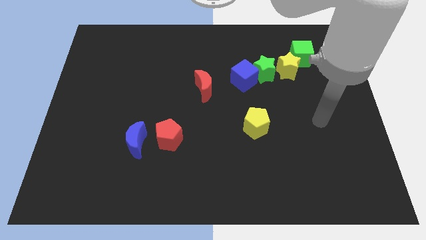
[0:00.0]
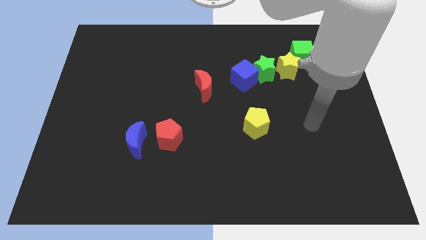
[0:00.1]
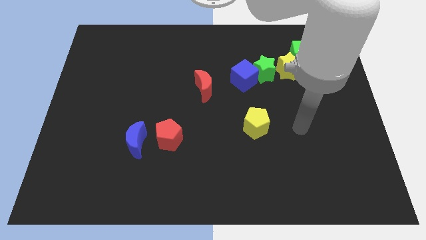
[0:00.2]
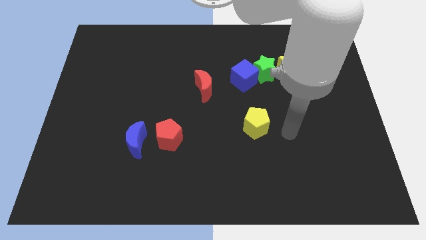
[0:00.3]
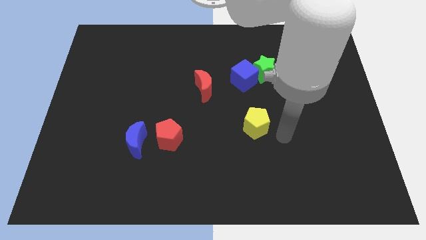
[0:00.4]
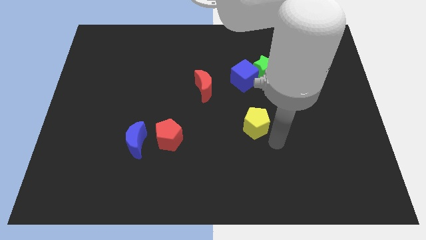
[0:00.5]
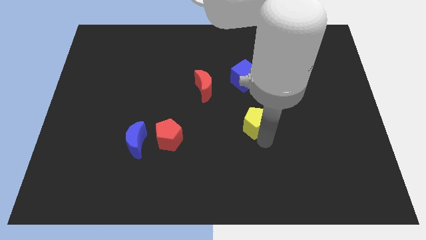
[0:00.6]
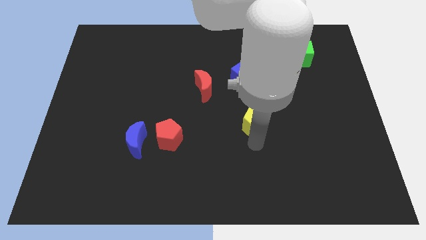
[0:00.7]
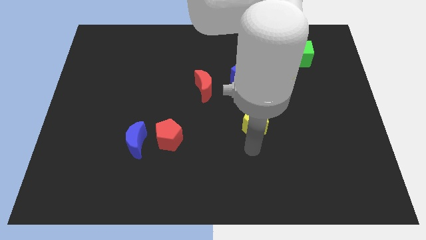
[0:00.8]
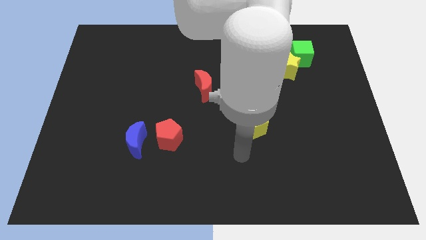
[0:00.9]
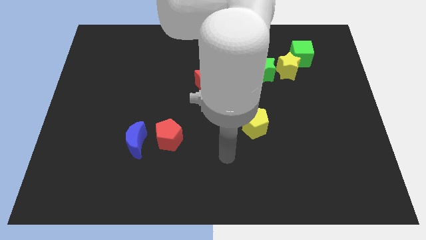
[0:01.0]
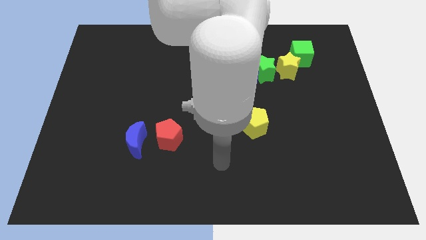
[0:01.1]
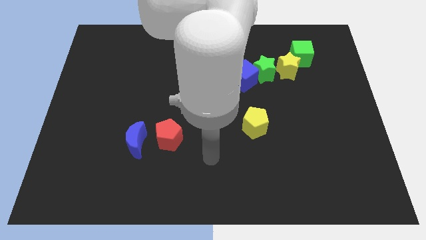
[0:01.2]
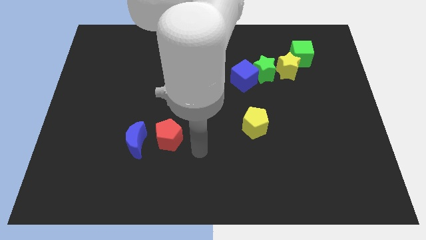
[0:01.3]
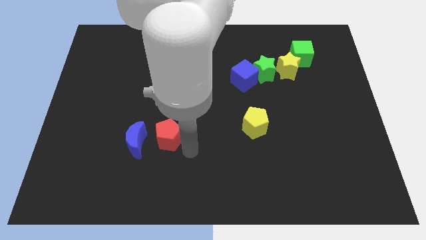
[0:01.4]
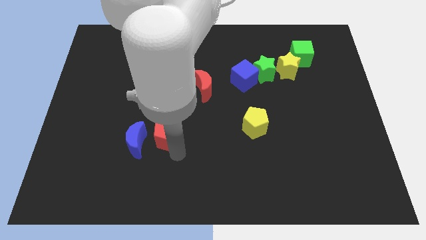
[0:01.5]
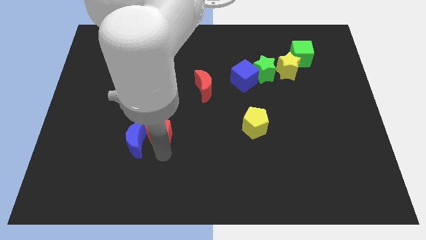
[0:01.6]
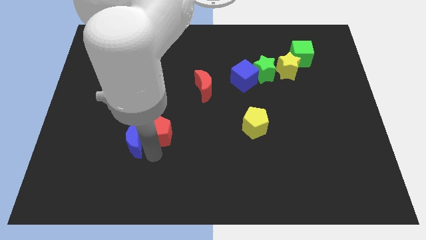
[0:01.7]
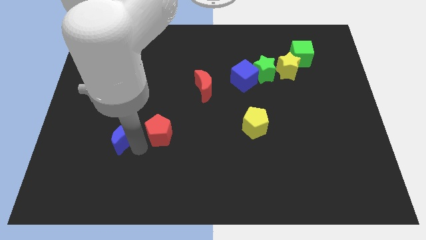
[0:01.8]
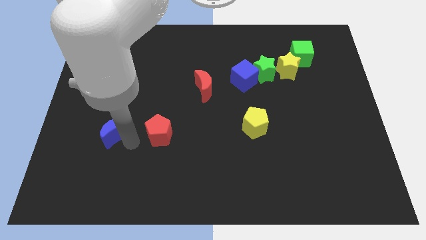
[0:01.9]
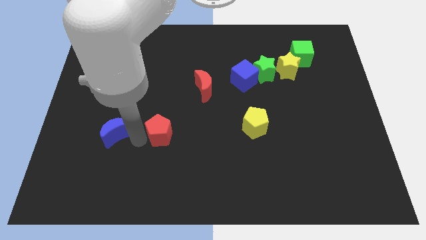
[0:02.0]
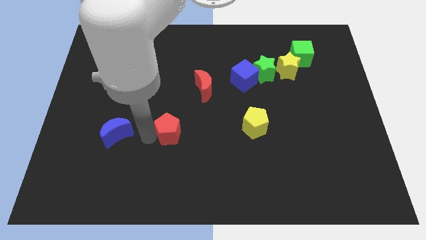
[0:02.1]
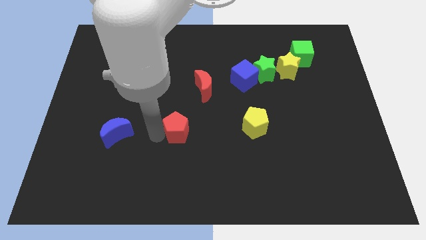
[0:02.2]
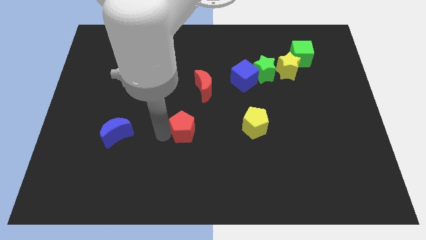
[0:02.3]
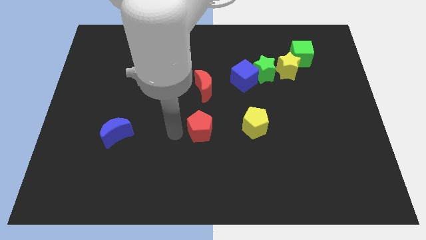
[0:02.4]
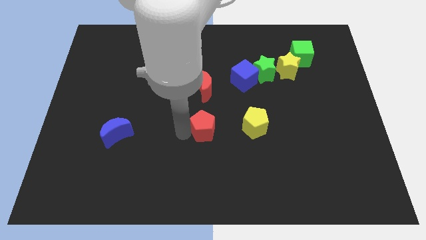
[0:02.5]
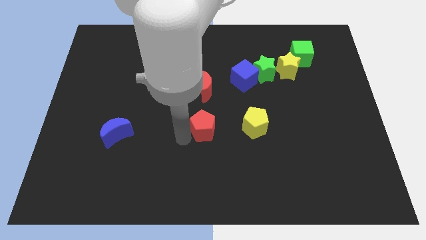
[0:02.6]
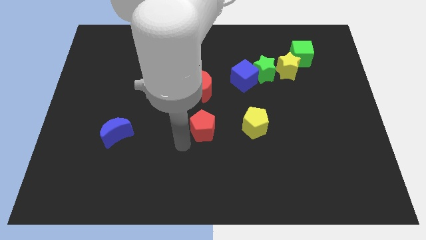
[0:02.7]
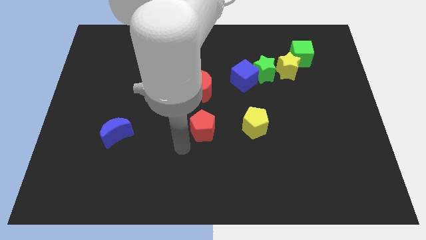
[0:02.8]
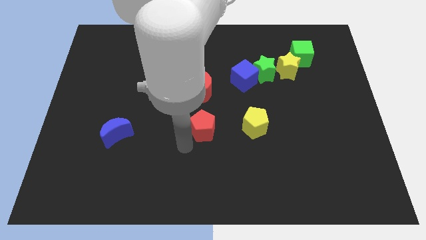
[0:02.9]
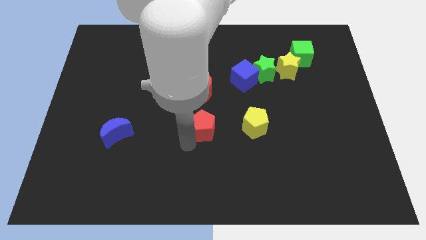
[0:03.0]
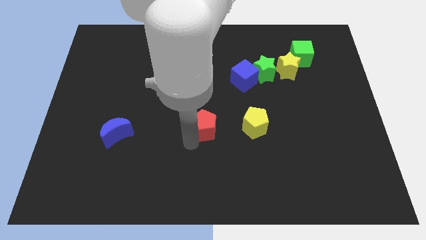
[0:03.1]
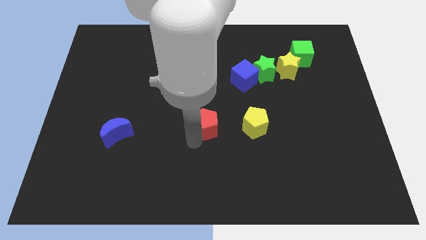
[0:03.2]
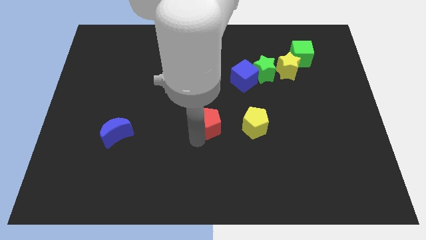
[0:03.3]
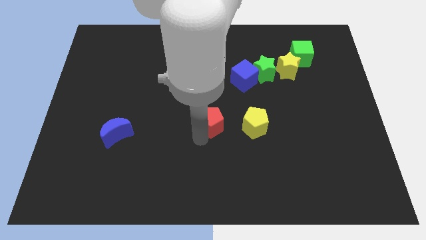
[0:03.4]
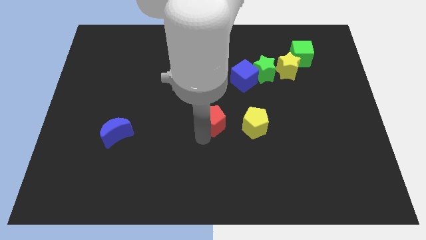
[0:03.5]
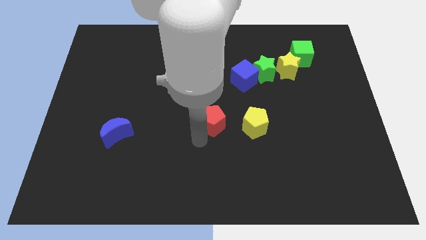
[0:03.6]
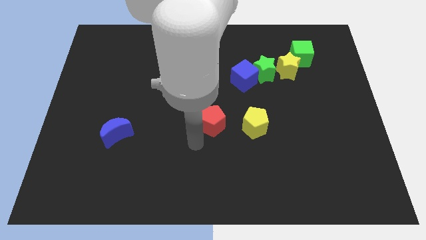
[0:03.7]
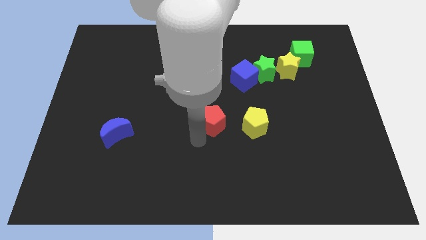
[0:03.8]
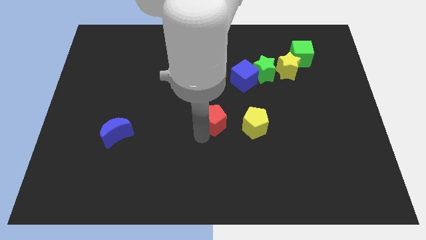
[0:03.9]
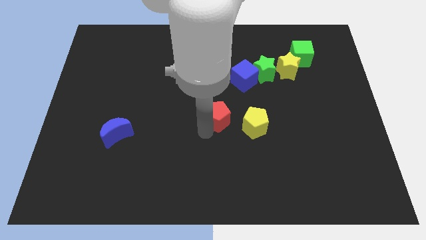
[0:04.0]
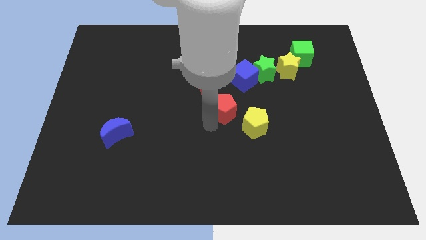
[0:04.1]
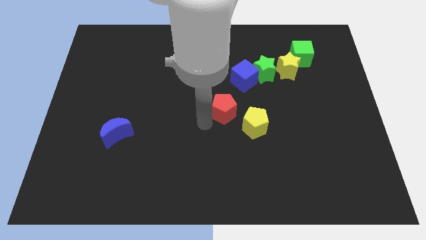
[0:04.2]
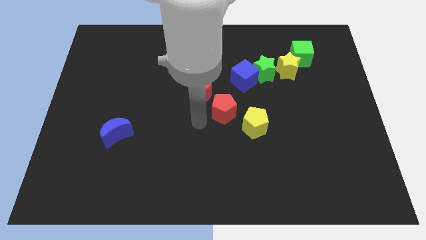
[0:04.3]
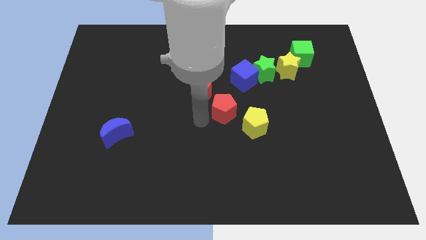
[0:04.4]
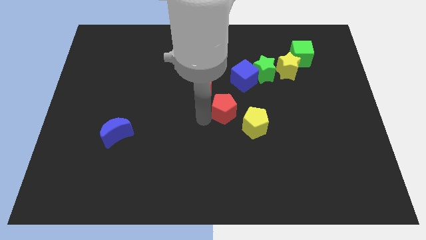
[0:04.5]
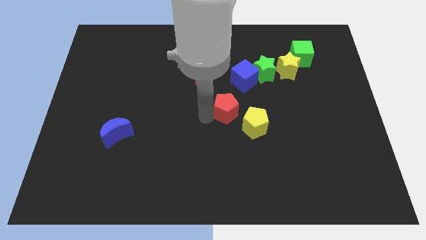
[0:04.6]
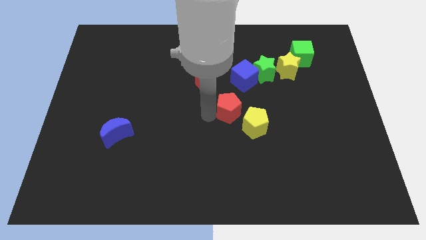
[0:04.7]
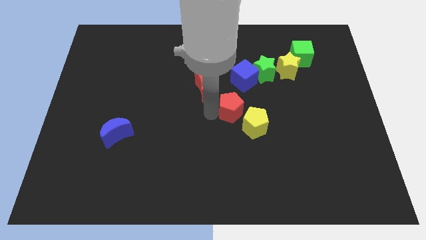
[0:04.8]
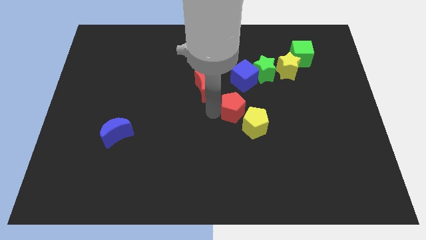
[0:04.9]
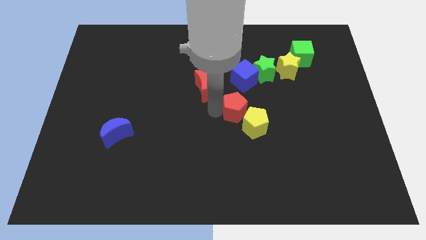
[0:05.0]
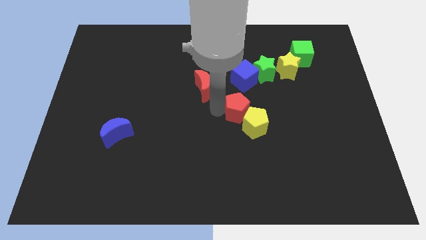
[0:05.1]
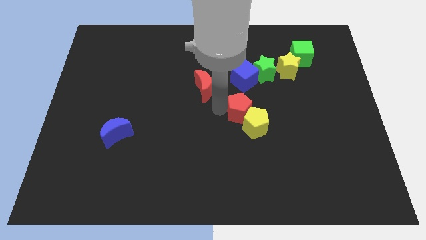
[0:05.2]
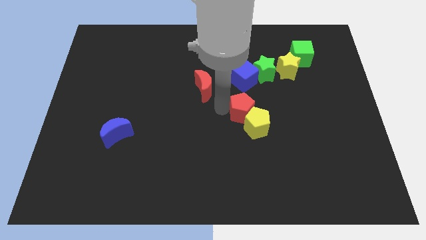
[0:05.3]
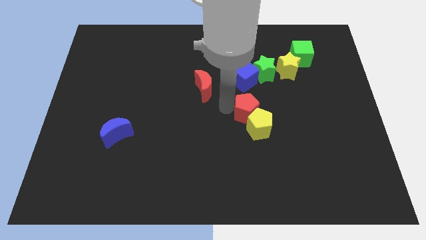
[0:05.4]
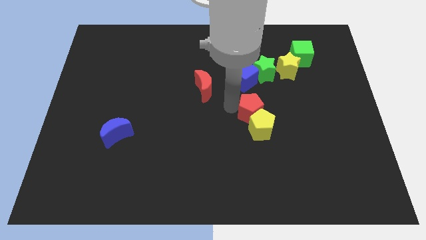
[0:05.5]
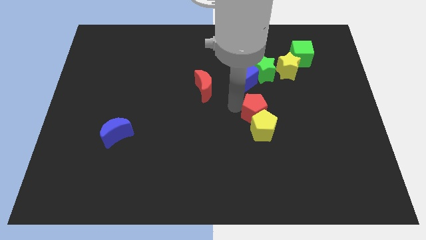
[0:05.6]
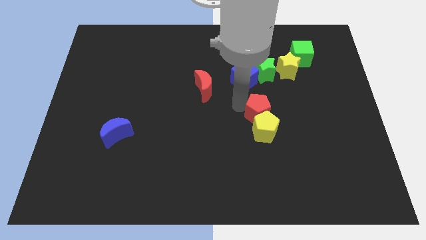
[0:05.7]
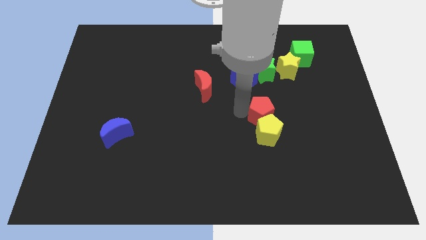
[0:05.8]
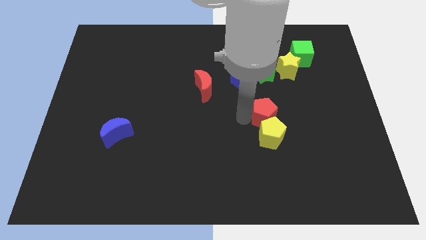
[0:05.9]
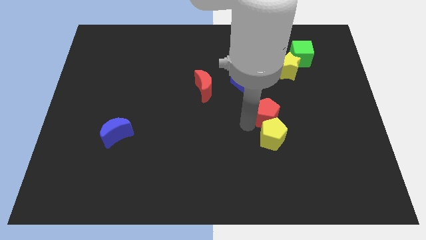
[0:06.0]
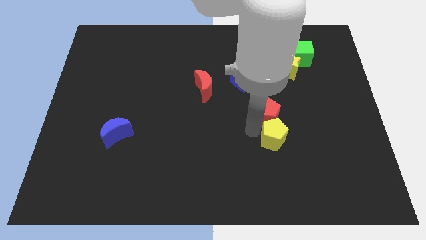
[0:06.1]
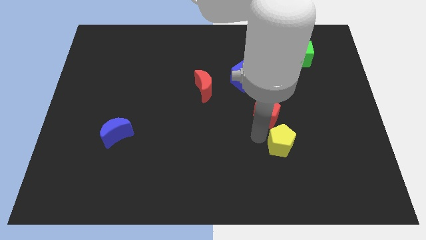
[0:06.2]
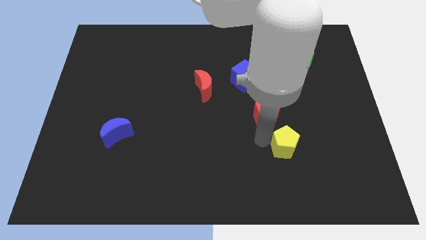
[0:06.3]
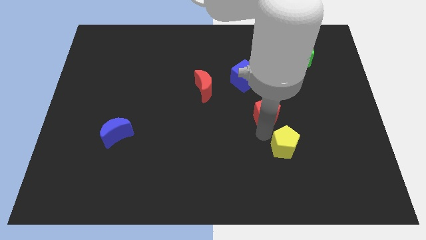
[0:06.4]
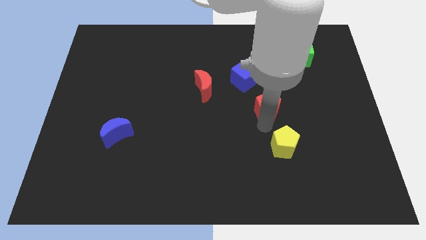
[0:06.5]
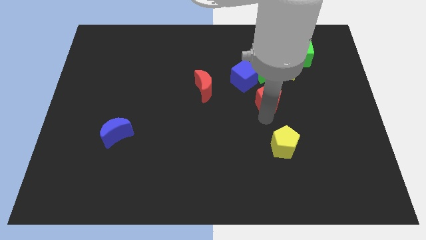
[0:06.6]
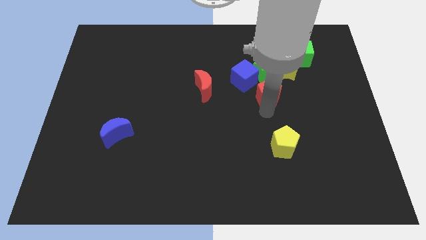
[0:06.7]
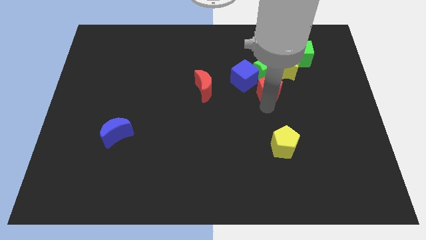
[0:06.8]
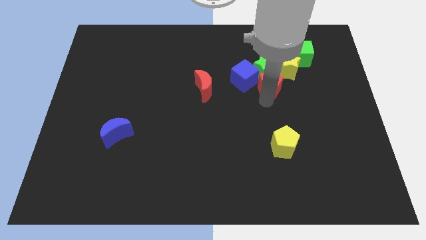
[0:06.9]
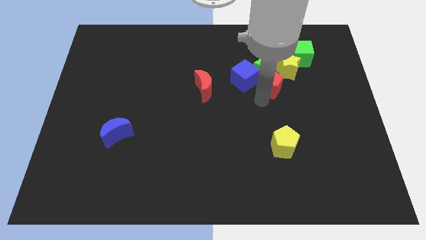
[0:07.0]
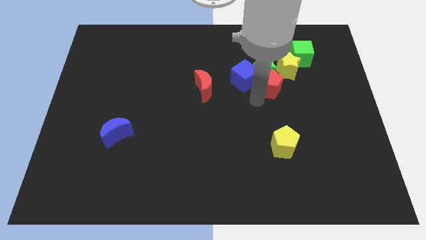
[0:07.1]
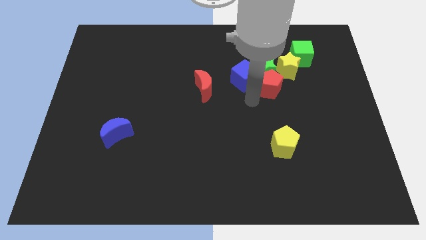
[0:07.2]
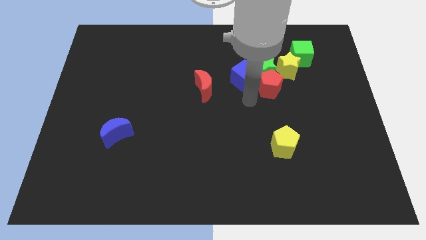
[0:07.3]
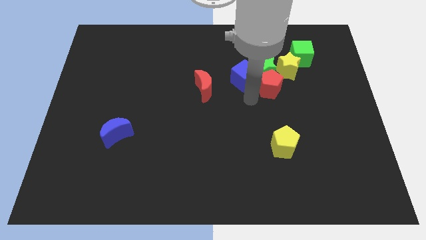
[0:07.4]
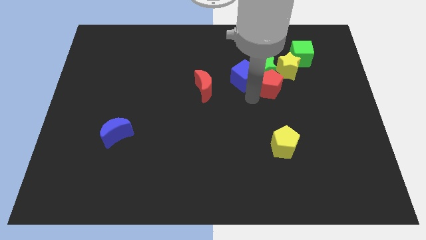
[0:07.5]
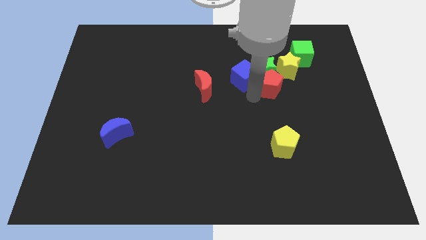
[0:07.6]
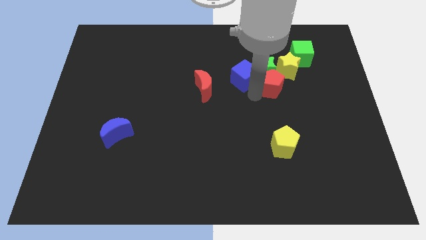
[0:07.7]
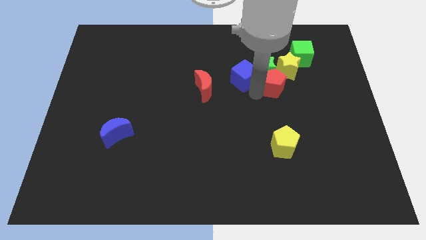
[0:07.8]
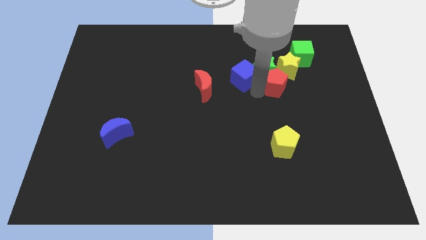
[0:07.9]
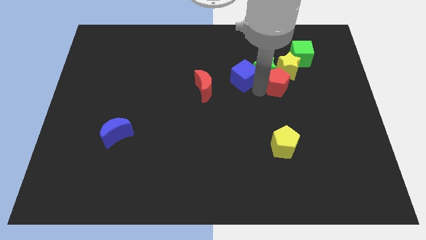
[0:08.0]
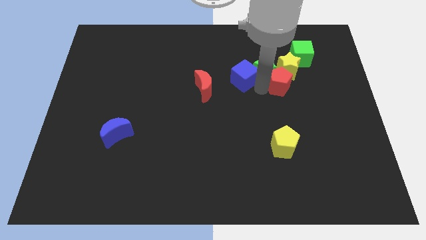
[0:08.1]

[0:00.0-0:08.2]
put the red pentagon to the yellow star
